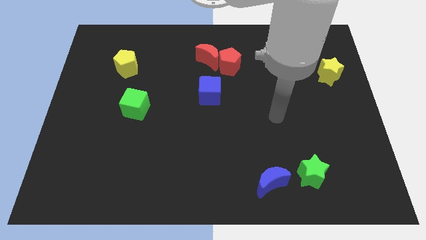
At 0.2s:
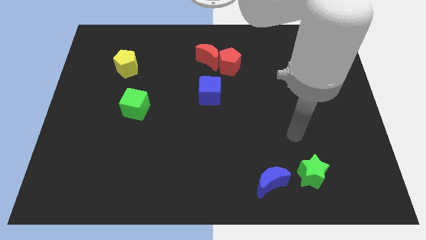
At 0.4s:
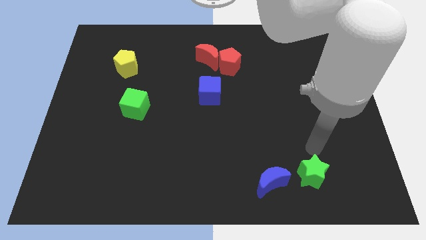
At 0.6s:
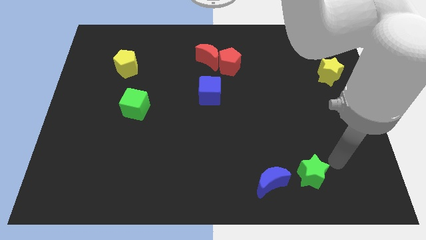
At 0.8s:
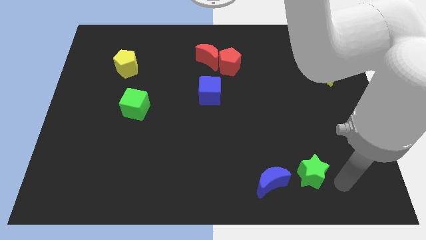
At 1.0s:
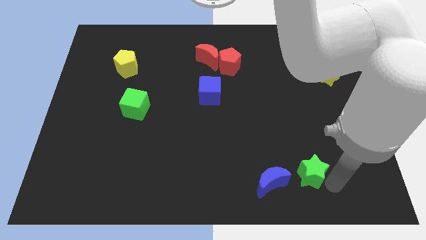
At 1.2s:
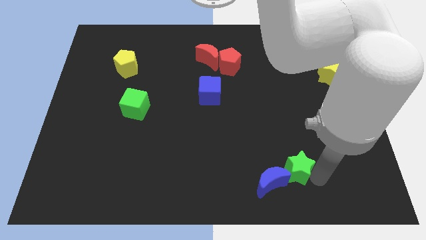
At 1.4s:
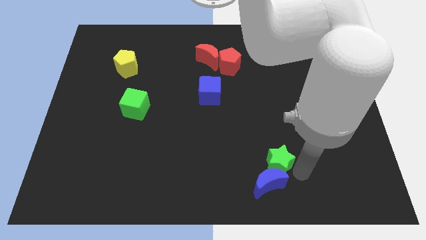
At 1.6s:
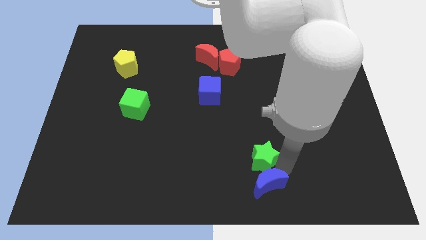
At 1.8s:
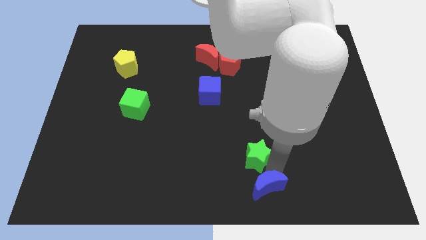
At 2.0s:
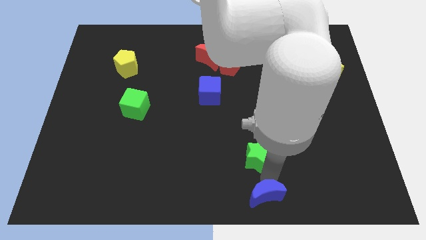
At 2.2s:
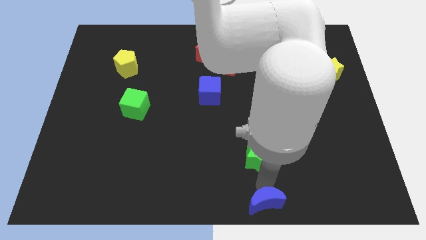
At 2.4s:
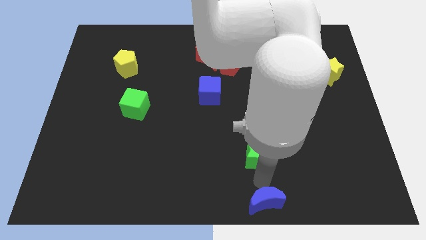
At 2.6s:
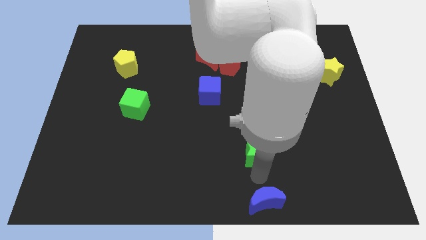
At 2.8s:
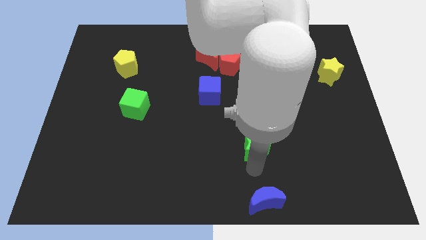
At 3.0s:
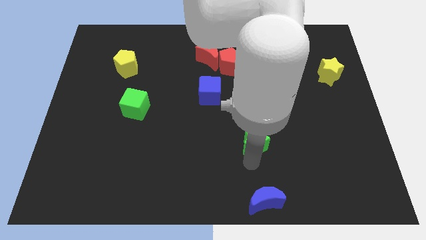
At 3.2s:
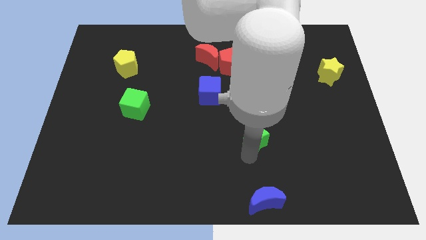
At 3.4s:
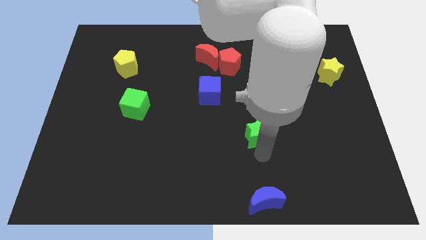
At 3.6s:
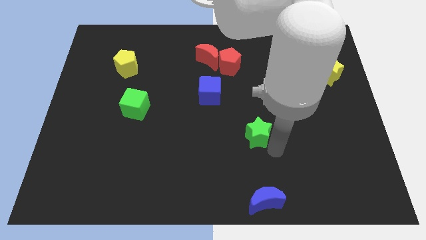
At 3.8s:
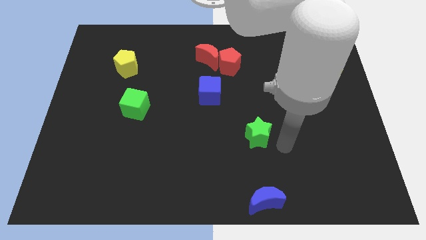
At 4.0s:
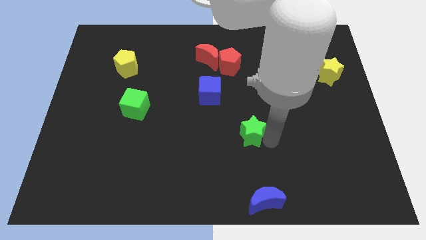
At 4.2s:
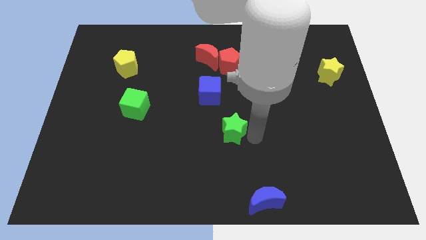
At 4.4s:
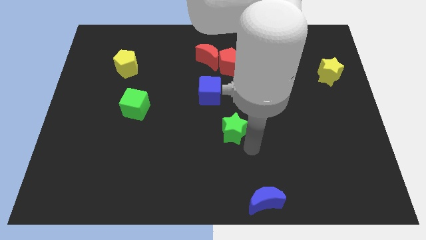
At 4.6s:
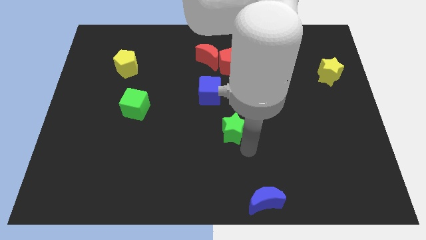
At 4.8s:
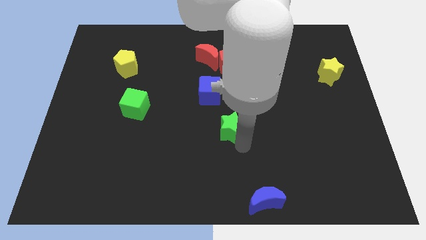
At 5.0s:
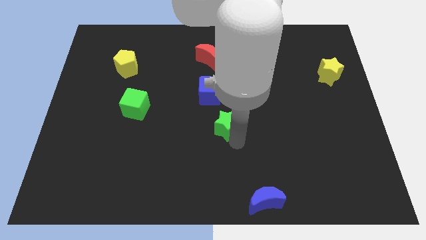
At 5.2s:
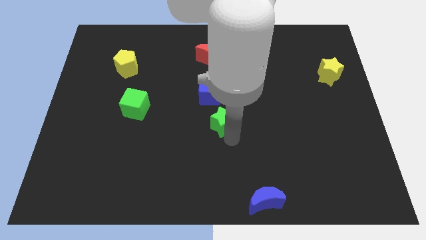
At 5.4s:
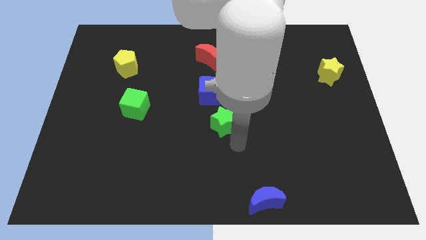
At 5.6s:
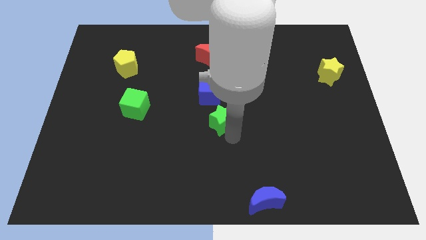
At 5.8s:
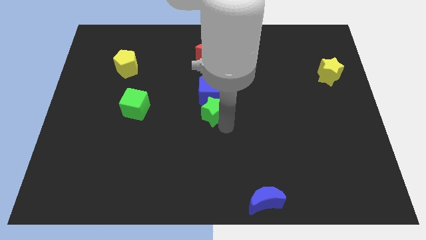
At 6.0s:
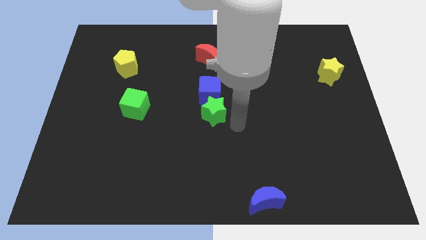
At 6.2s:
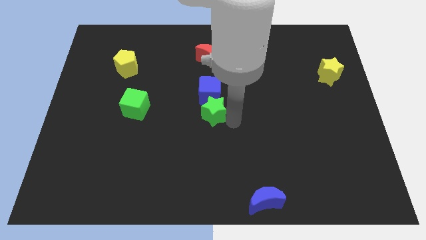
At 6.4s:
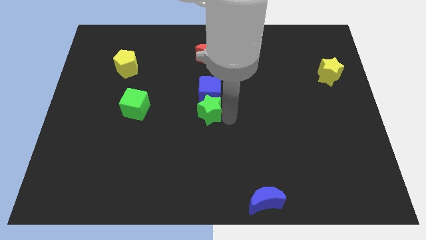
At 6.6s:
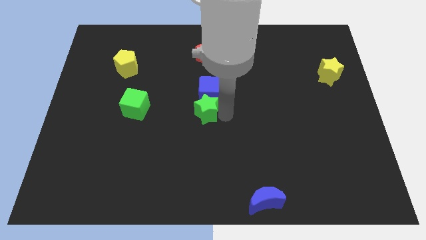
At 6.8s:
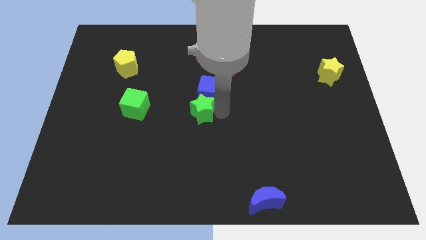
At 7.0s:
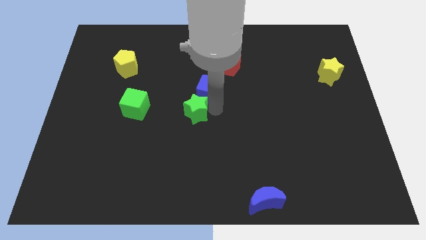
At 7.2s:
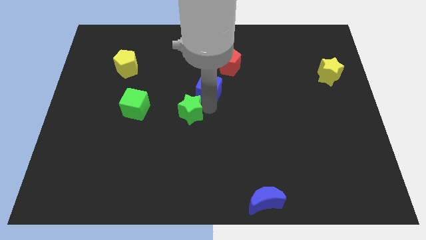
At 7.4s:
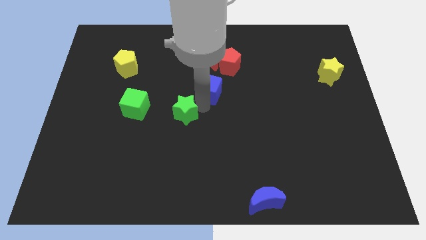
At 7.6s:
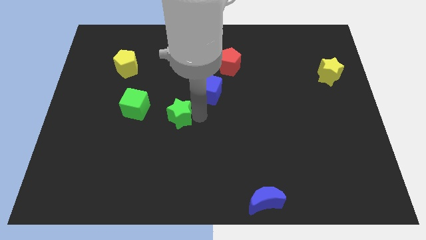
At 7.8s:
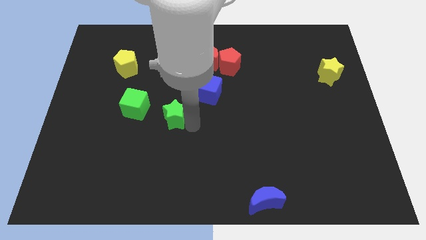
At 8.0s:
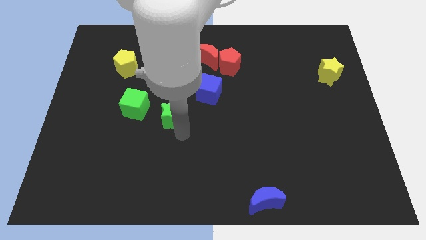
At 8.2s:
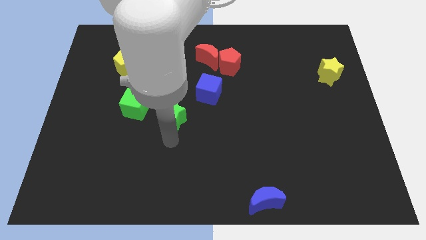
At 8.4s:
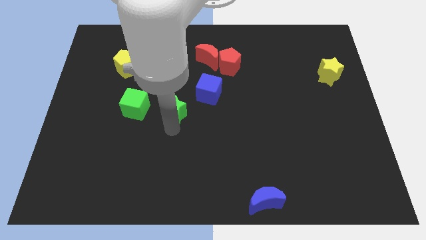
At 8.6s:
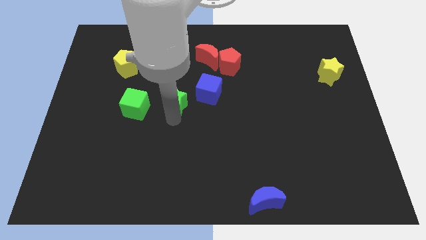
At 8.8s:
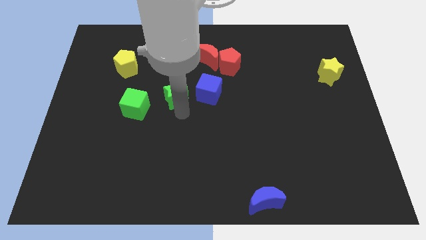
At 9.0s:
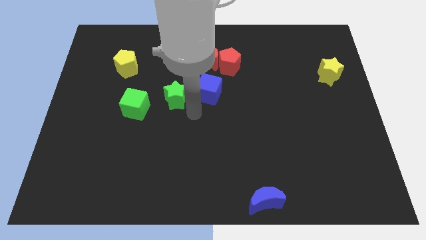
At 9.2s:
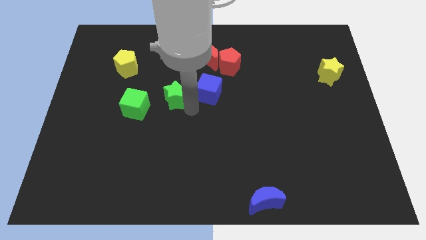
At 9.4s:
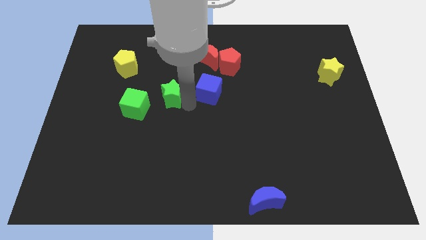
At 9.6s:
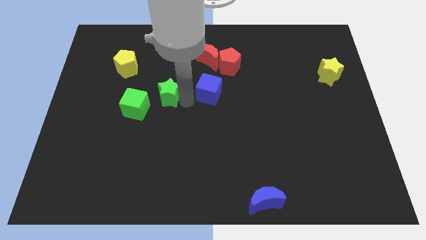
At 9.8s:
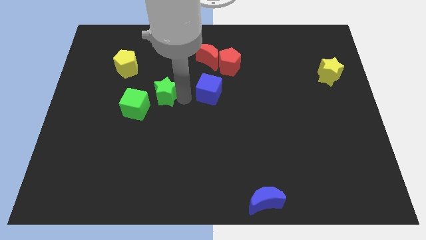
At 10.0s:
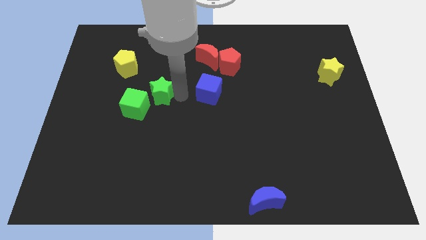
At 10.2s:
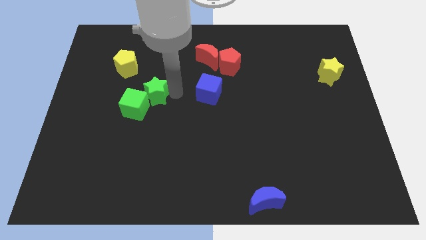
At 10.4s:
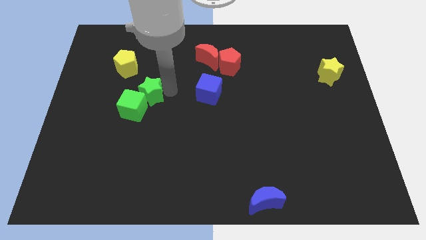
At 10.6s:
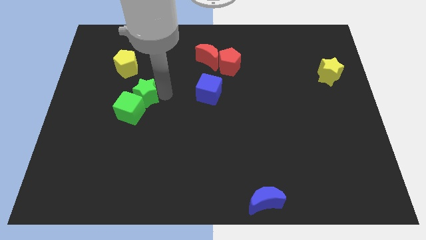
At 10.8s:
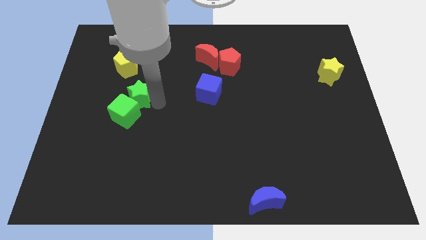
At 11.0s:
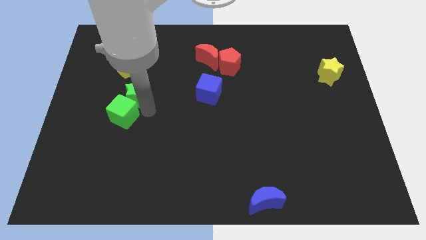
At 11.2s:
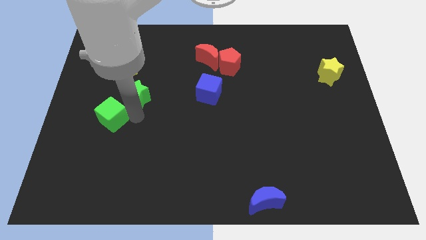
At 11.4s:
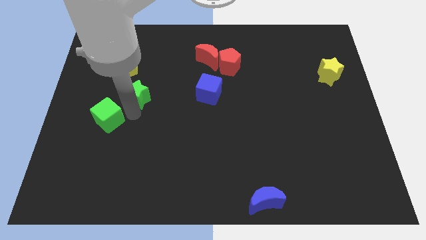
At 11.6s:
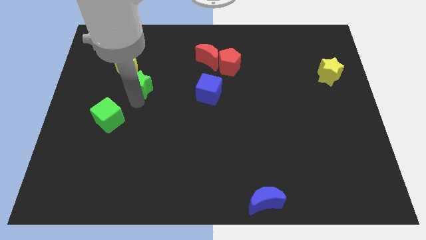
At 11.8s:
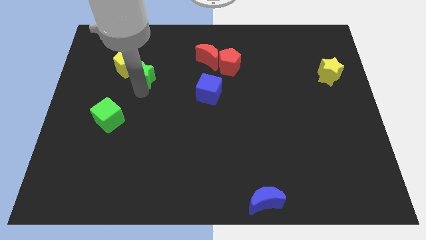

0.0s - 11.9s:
move the green star towards the yellow pentagon

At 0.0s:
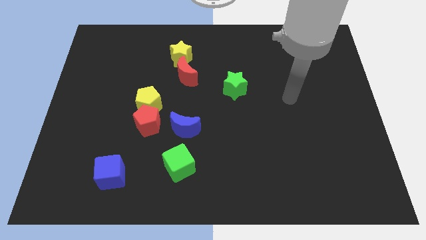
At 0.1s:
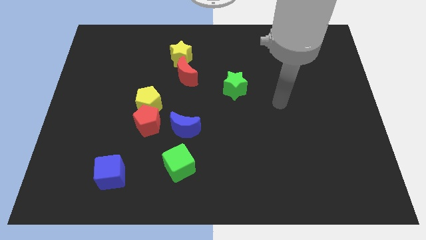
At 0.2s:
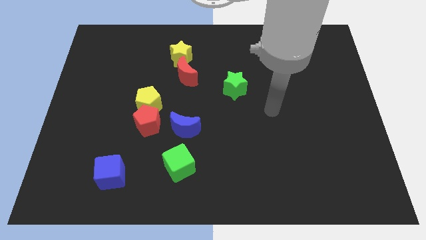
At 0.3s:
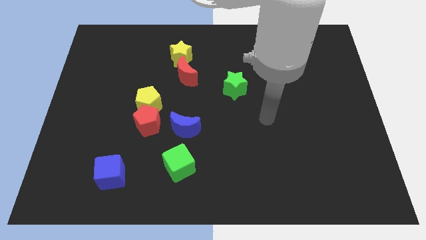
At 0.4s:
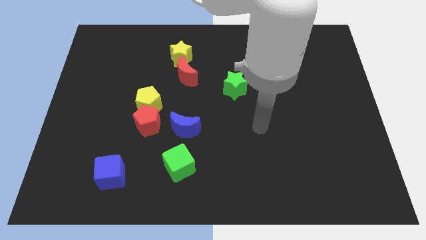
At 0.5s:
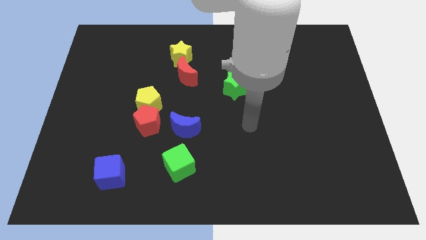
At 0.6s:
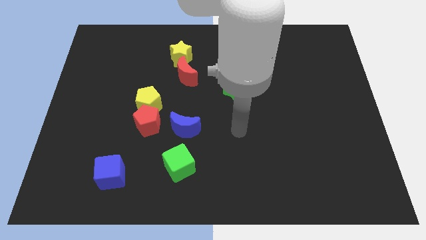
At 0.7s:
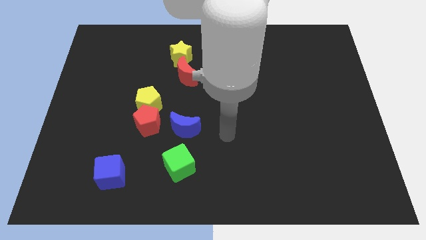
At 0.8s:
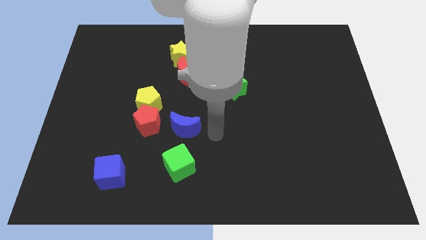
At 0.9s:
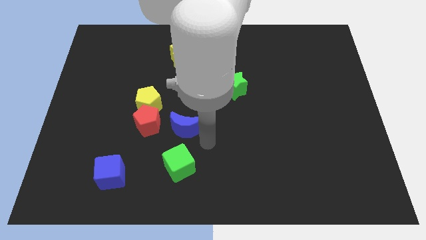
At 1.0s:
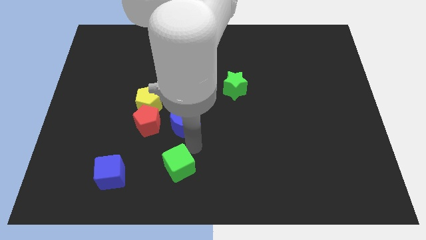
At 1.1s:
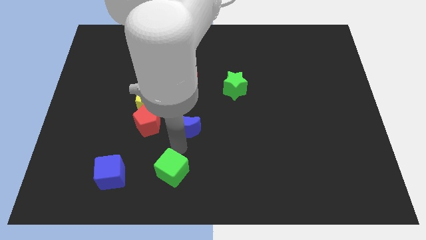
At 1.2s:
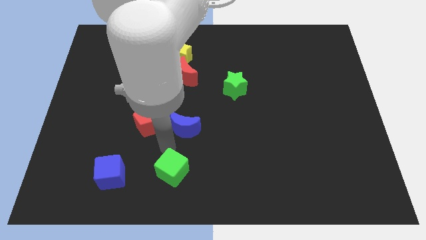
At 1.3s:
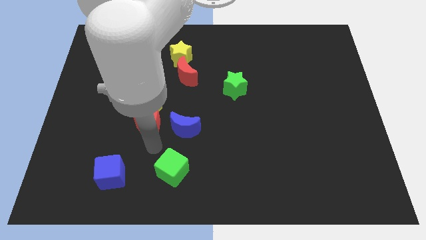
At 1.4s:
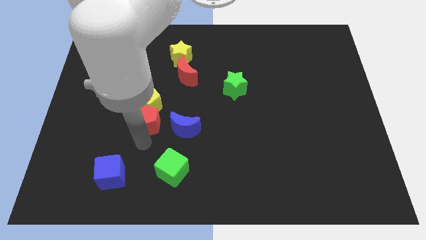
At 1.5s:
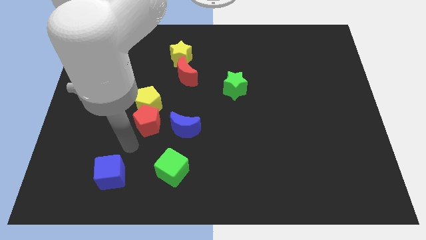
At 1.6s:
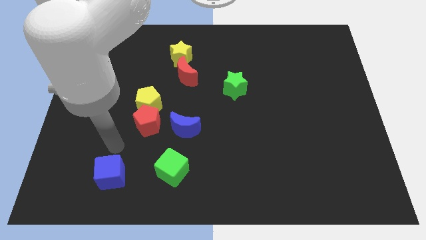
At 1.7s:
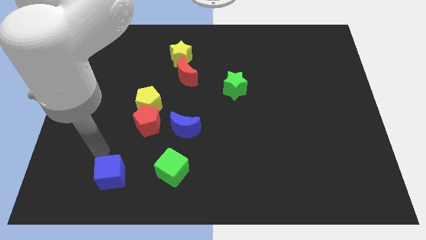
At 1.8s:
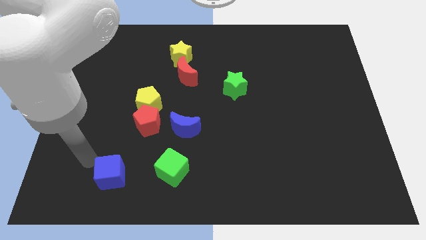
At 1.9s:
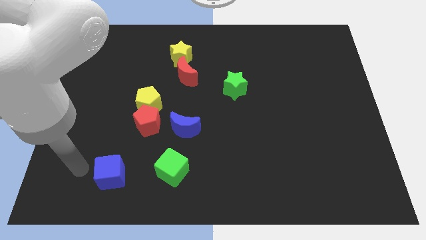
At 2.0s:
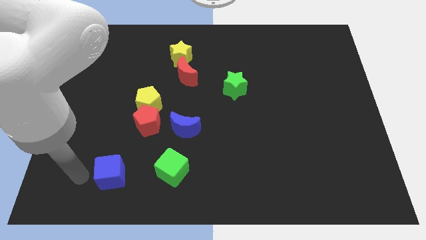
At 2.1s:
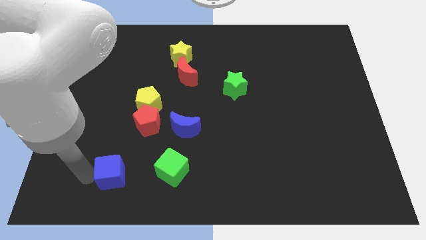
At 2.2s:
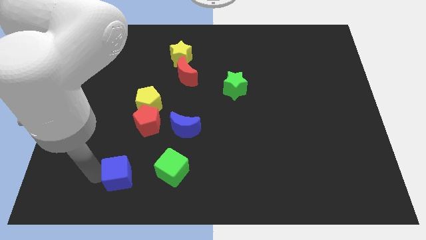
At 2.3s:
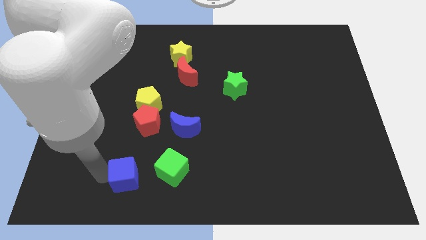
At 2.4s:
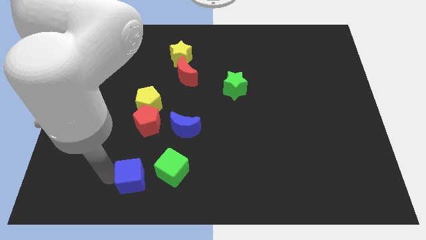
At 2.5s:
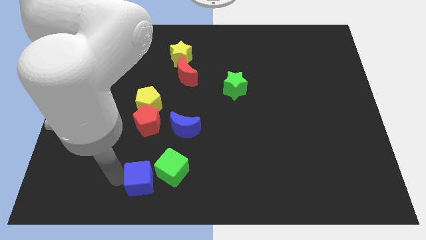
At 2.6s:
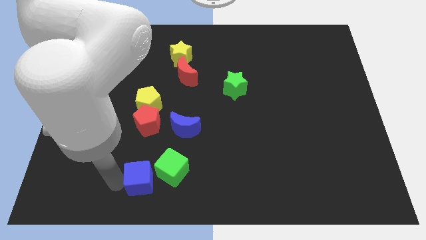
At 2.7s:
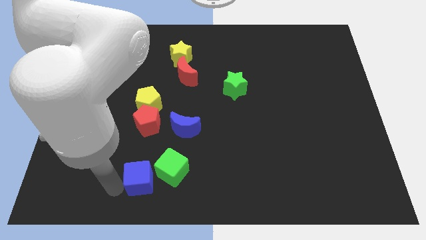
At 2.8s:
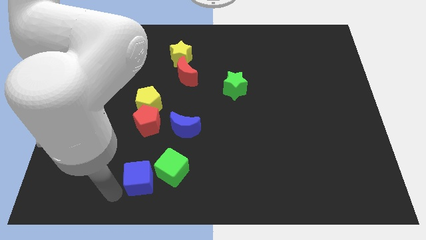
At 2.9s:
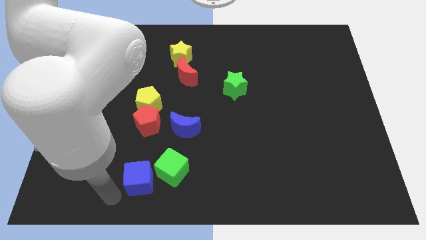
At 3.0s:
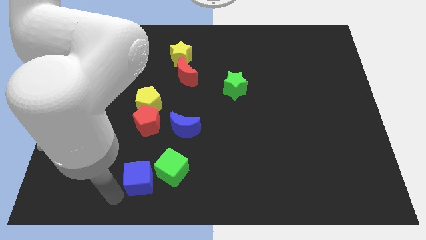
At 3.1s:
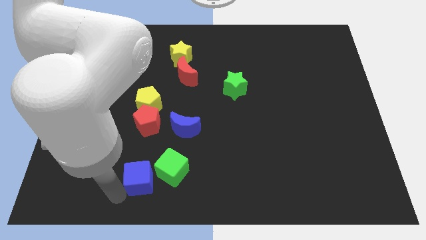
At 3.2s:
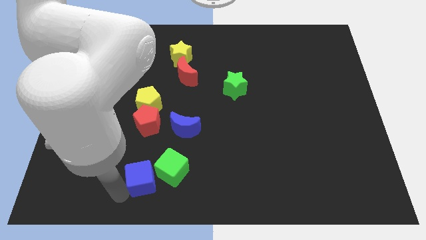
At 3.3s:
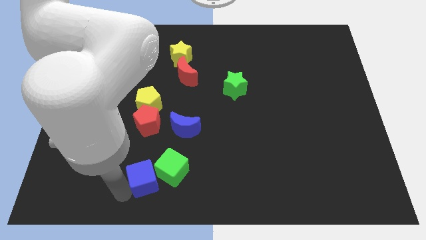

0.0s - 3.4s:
push the blue cube towards the green cube
